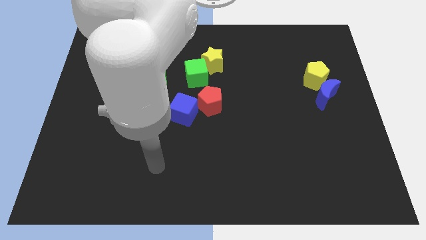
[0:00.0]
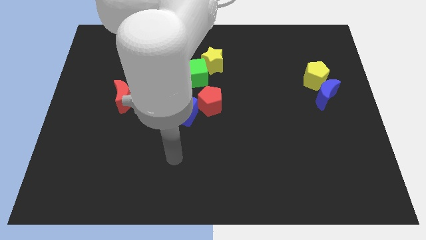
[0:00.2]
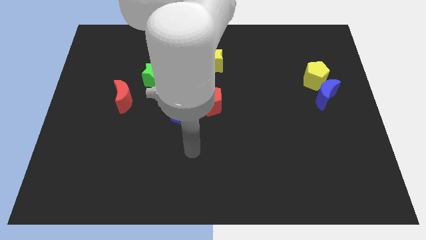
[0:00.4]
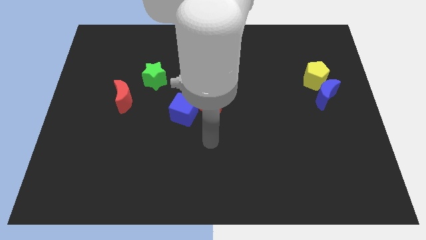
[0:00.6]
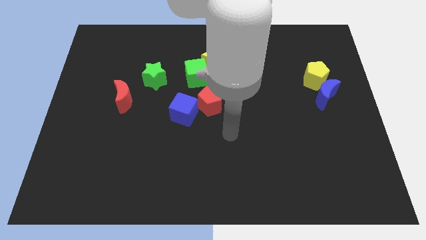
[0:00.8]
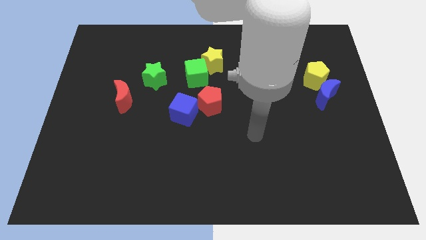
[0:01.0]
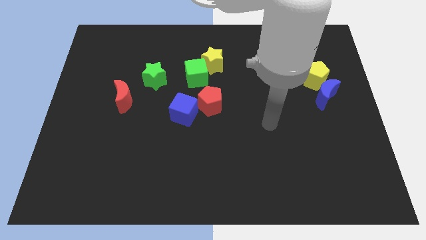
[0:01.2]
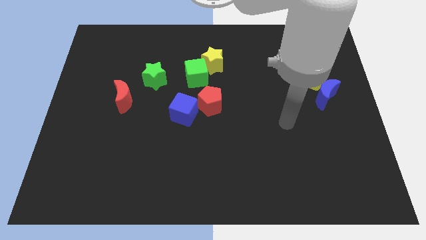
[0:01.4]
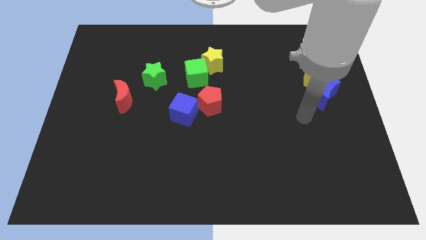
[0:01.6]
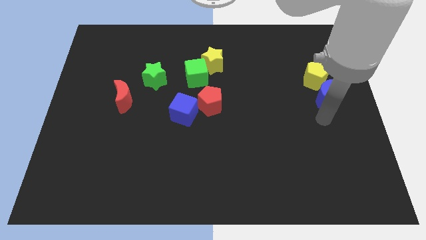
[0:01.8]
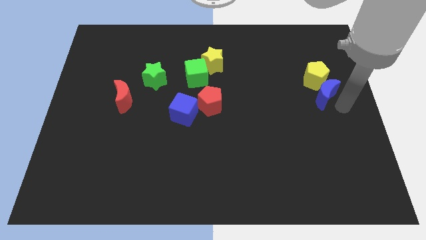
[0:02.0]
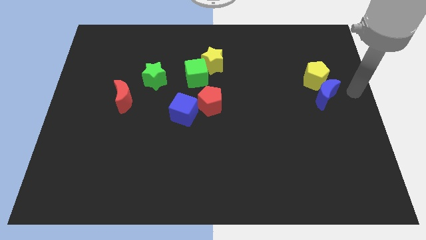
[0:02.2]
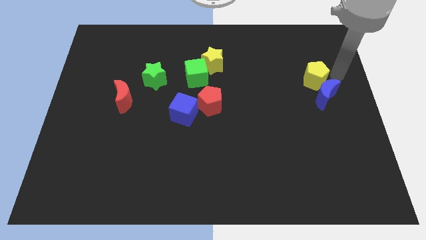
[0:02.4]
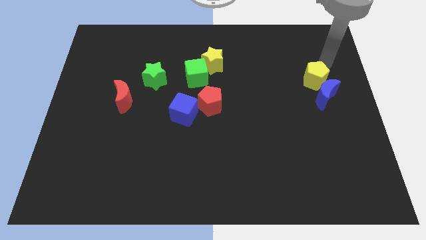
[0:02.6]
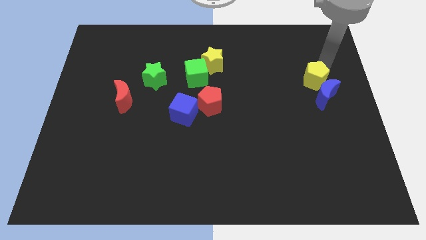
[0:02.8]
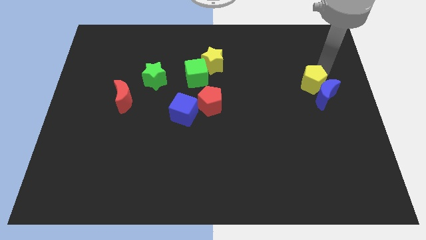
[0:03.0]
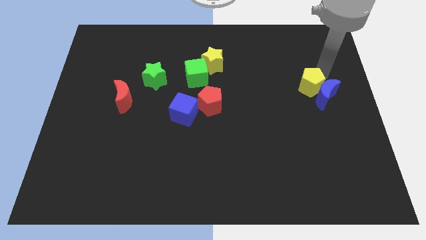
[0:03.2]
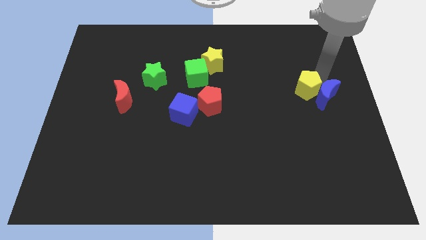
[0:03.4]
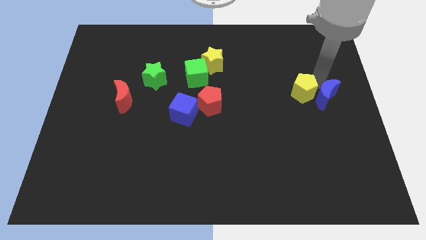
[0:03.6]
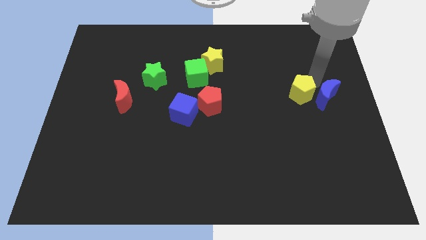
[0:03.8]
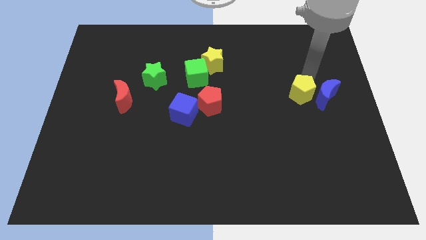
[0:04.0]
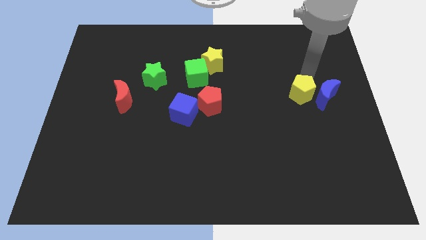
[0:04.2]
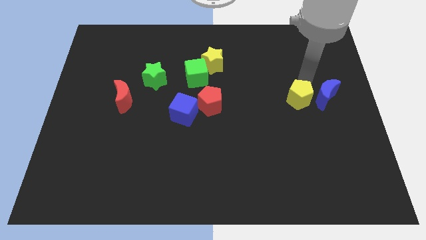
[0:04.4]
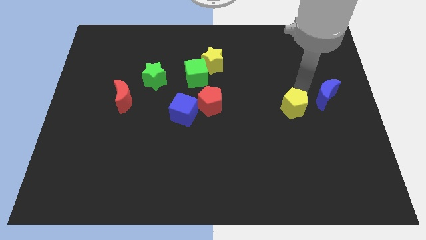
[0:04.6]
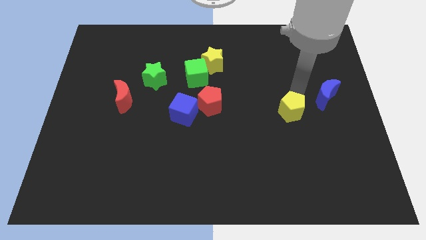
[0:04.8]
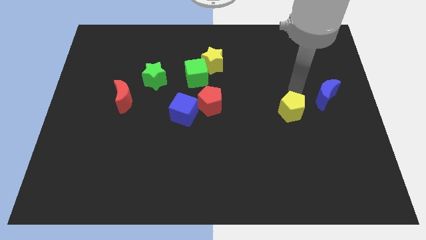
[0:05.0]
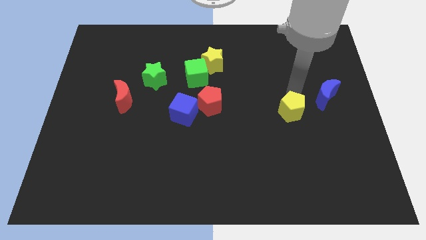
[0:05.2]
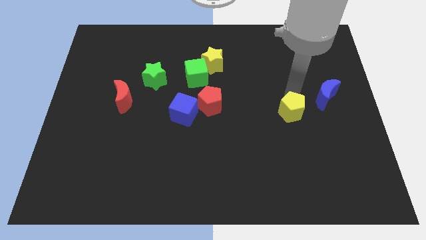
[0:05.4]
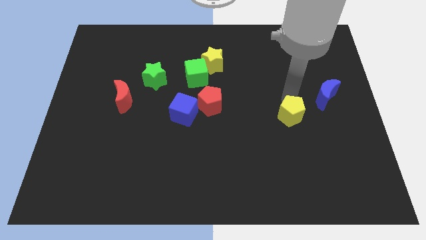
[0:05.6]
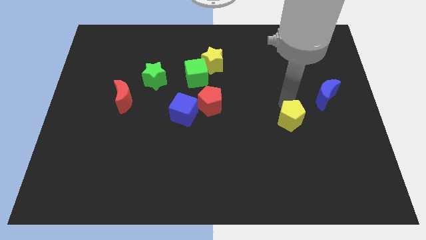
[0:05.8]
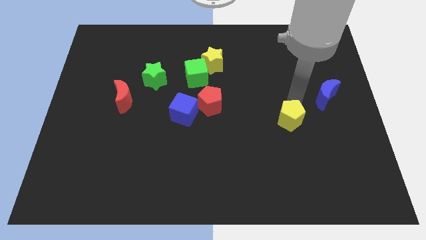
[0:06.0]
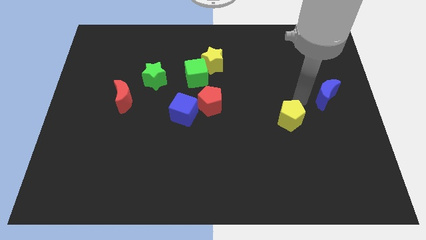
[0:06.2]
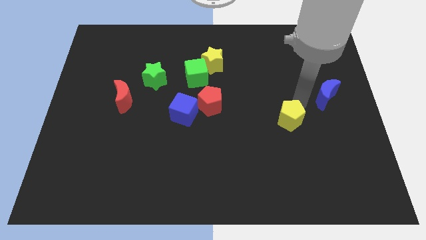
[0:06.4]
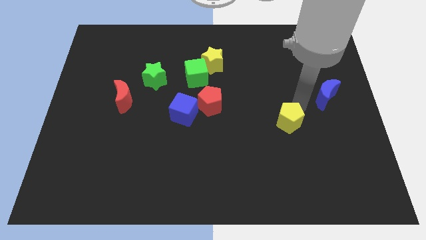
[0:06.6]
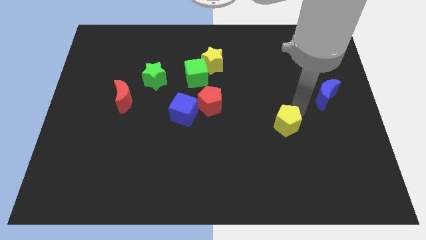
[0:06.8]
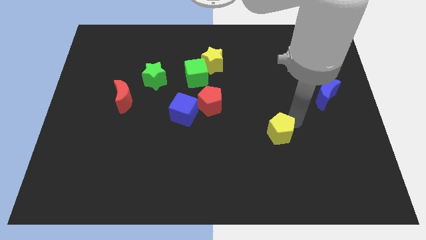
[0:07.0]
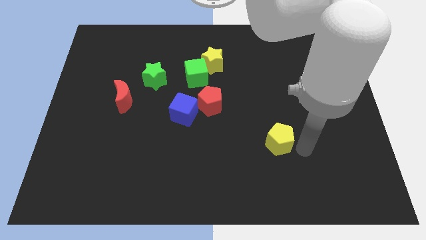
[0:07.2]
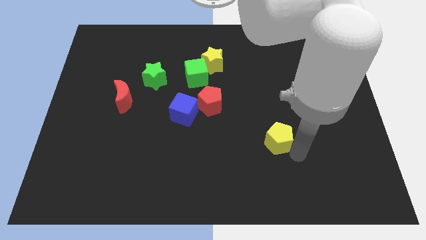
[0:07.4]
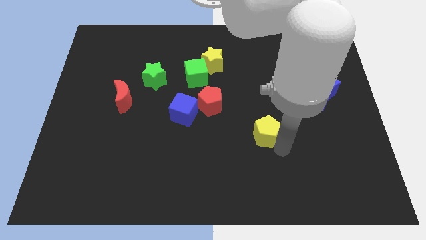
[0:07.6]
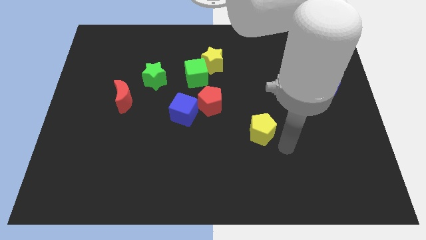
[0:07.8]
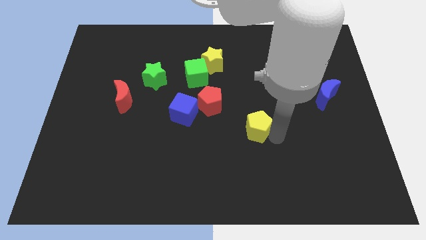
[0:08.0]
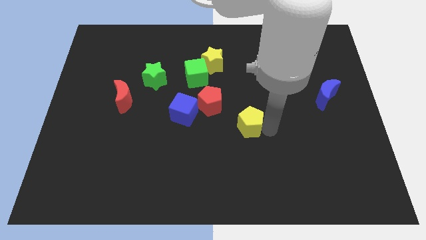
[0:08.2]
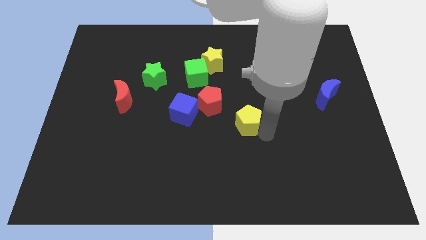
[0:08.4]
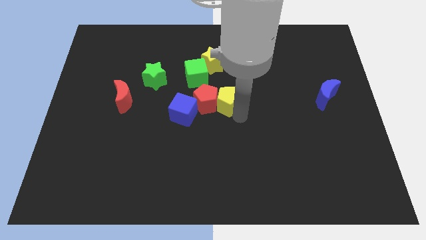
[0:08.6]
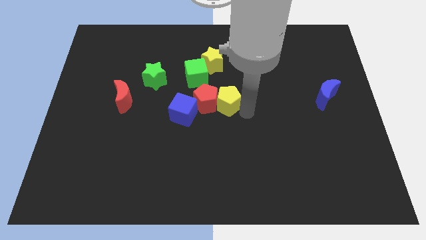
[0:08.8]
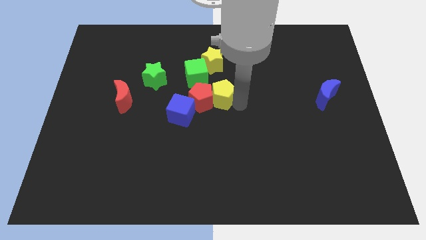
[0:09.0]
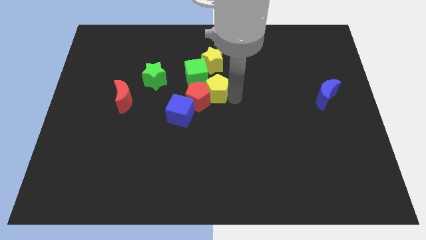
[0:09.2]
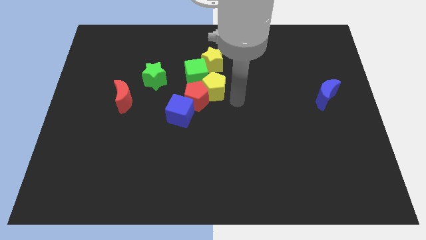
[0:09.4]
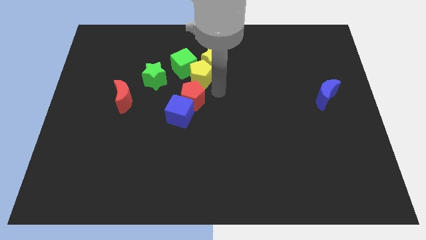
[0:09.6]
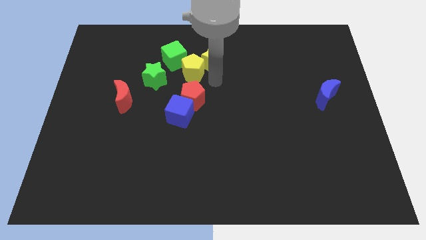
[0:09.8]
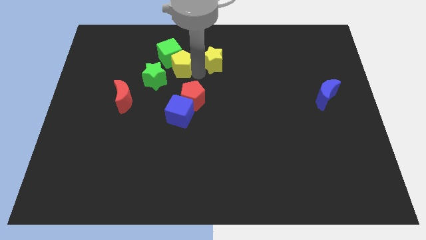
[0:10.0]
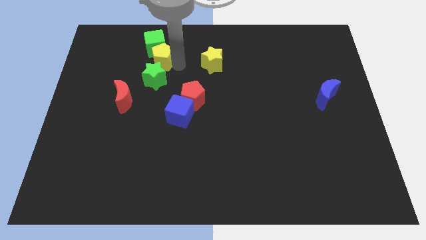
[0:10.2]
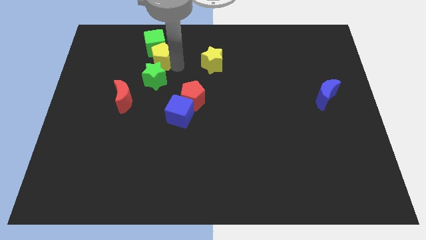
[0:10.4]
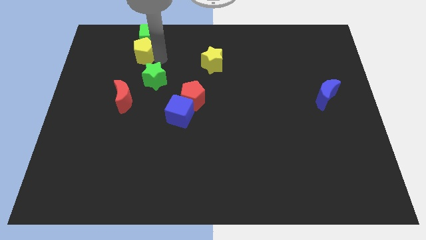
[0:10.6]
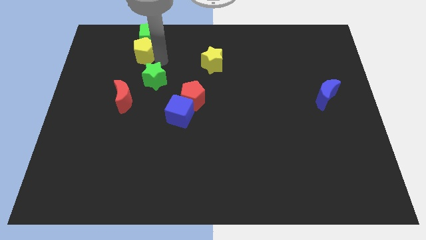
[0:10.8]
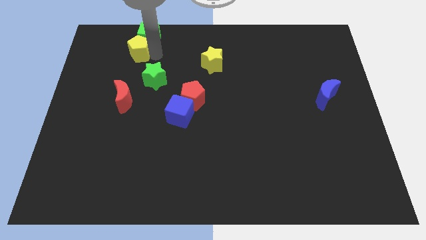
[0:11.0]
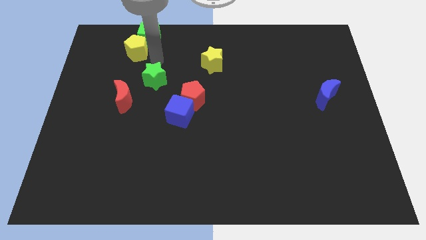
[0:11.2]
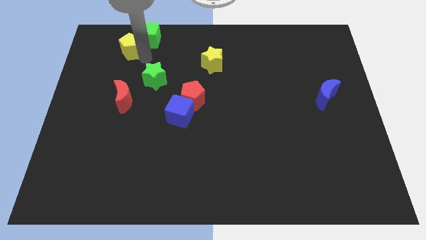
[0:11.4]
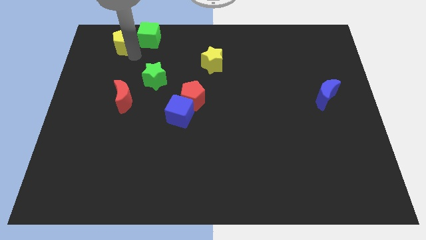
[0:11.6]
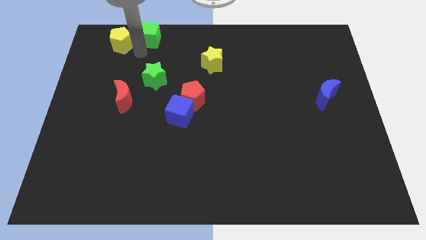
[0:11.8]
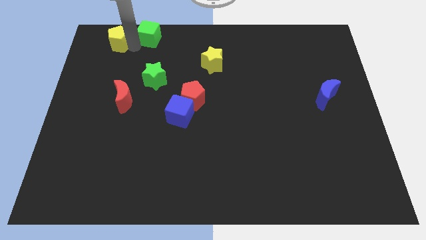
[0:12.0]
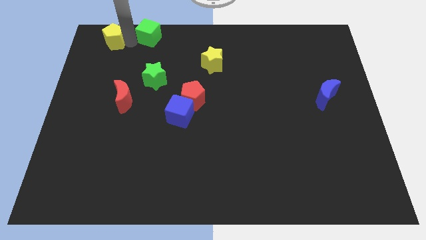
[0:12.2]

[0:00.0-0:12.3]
push the yellow pentagon to the top left corner

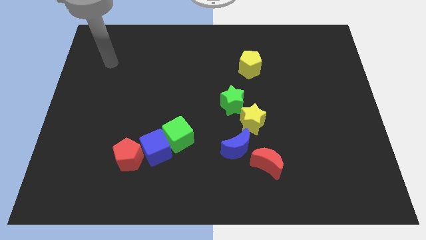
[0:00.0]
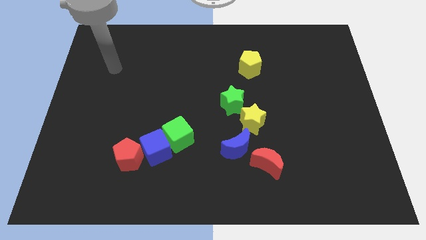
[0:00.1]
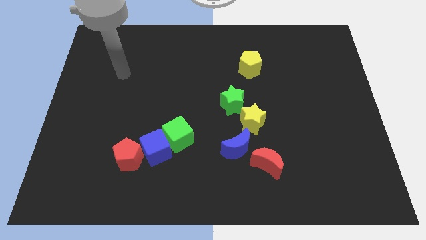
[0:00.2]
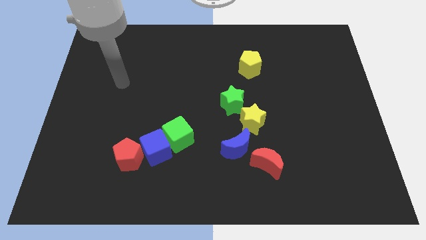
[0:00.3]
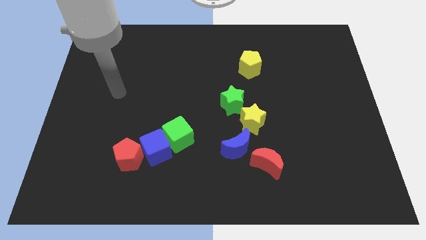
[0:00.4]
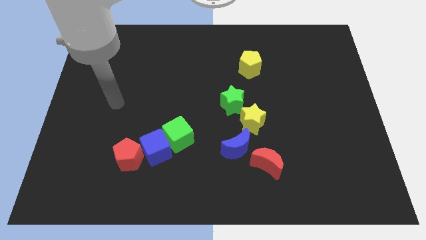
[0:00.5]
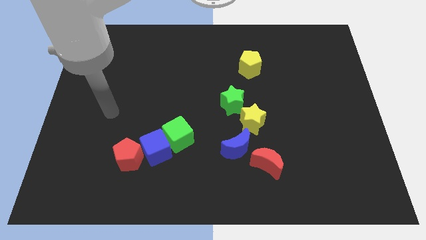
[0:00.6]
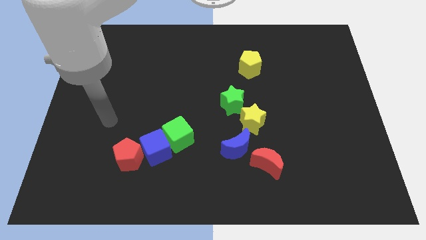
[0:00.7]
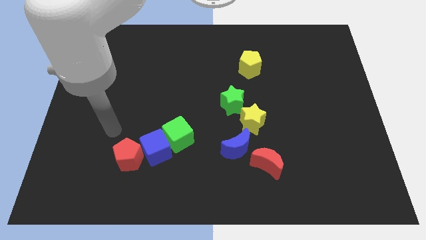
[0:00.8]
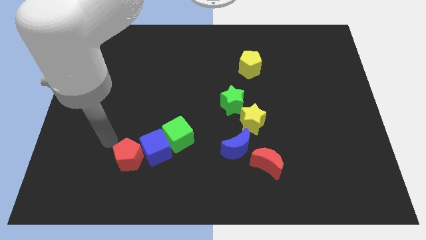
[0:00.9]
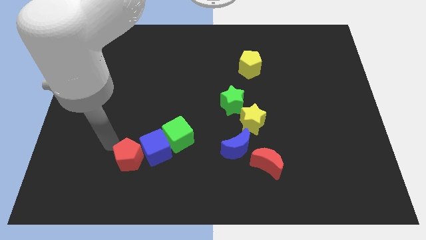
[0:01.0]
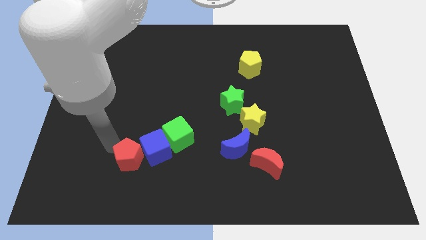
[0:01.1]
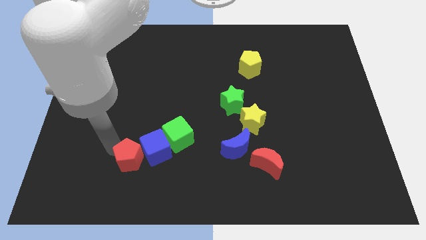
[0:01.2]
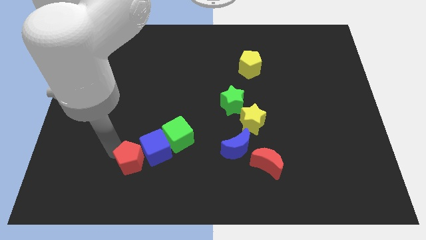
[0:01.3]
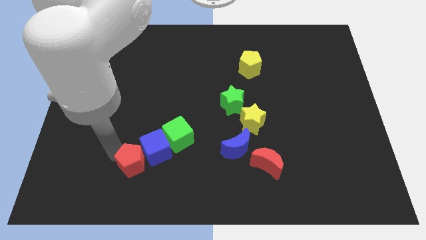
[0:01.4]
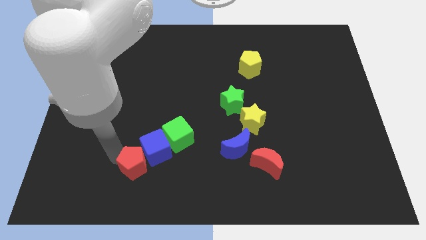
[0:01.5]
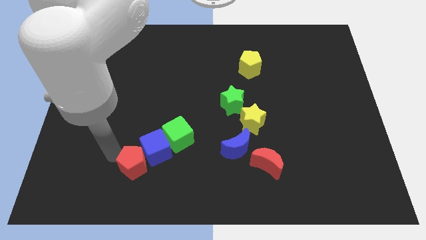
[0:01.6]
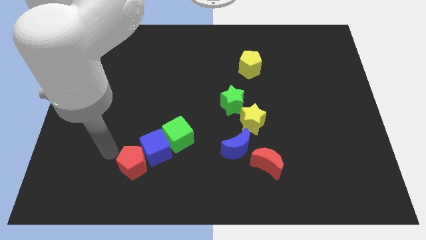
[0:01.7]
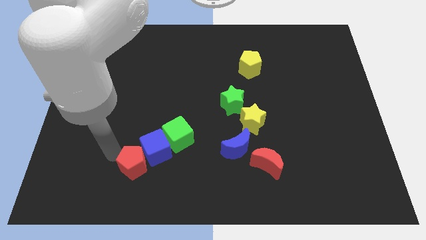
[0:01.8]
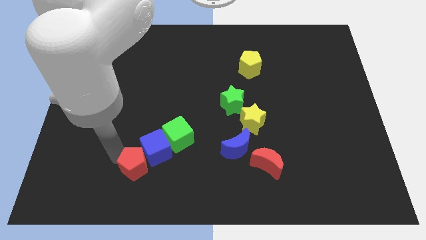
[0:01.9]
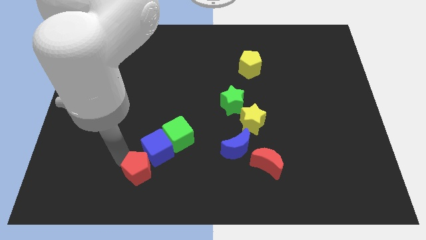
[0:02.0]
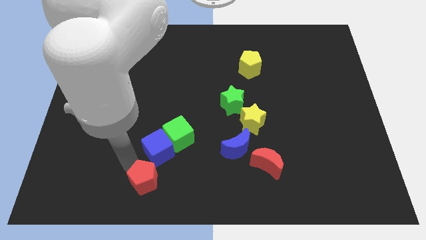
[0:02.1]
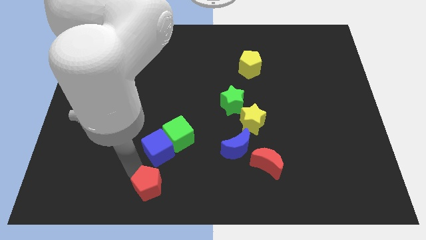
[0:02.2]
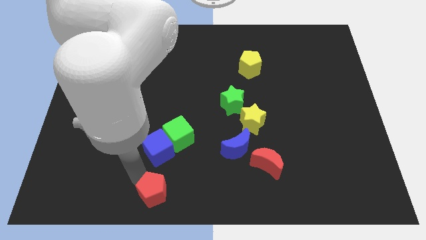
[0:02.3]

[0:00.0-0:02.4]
push the red pentagon to the bottom
